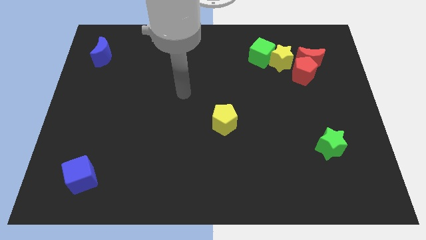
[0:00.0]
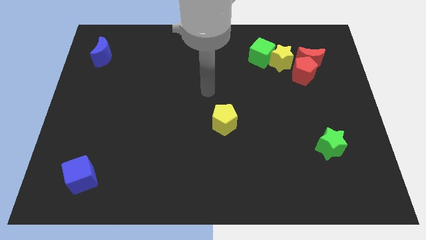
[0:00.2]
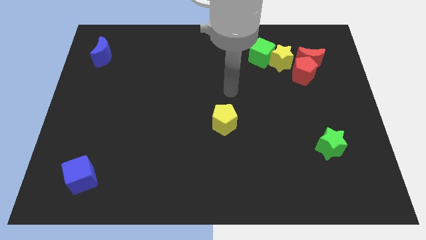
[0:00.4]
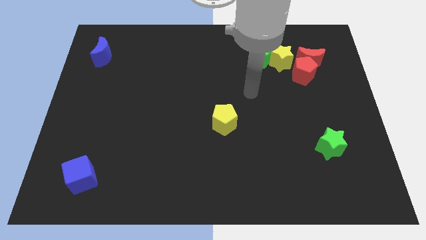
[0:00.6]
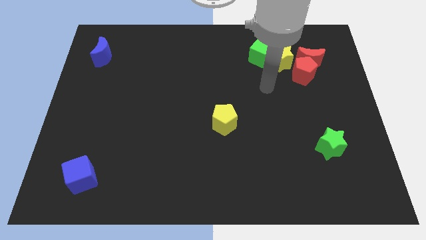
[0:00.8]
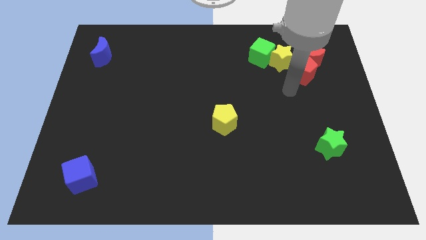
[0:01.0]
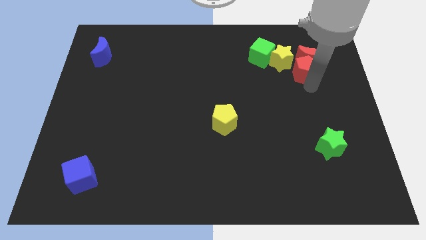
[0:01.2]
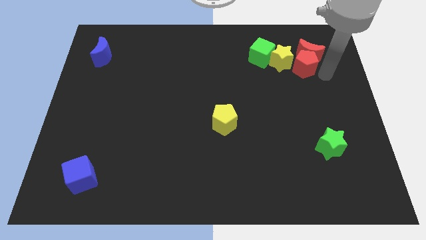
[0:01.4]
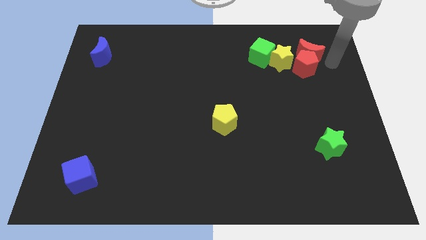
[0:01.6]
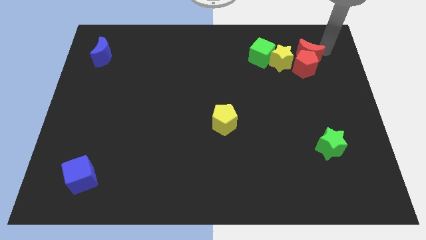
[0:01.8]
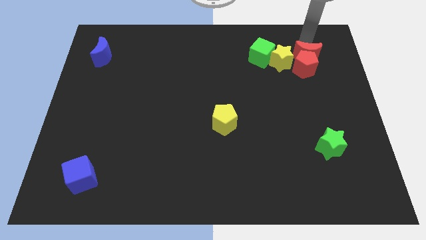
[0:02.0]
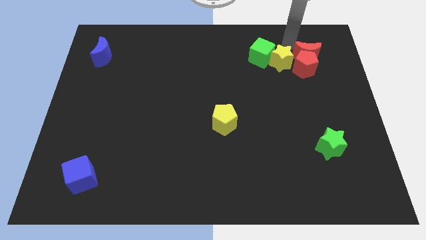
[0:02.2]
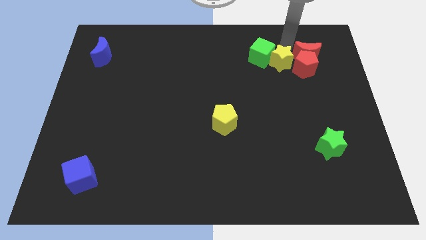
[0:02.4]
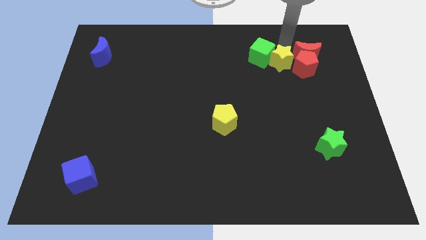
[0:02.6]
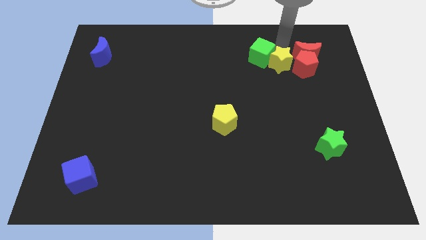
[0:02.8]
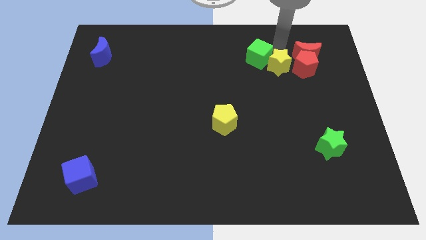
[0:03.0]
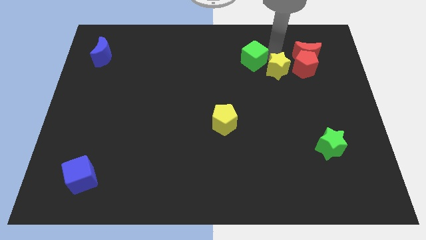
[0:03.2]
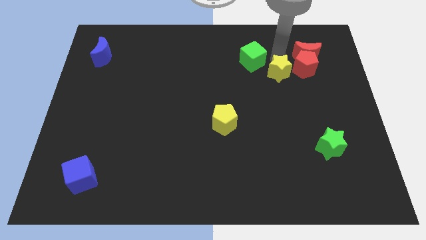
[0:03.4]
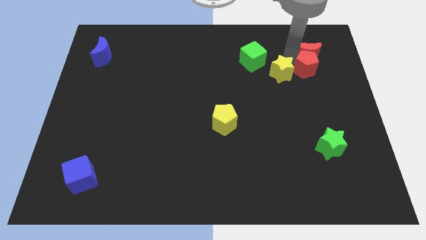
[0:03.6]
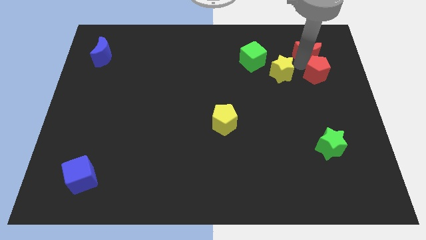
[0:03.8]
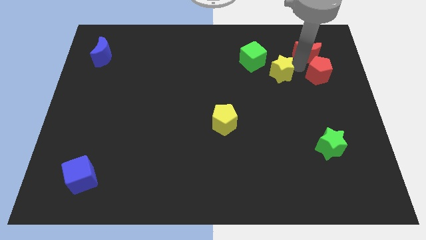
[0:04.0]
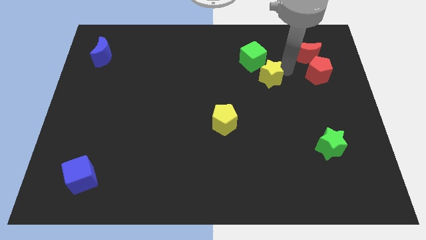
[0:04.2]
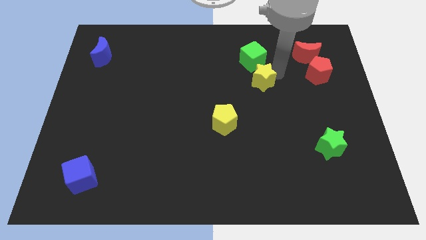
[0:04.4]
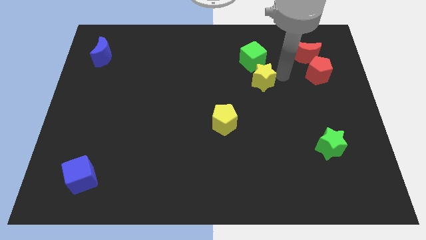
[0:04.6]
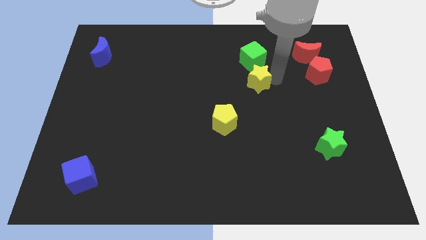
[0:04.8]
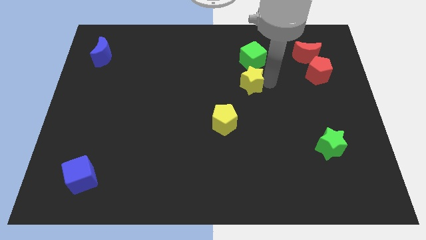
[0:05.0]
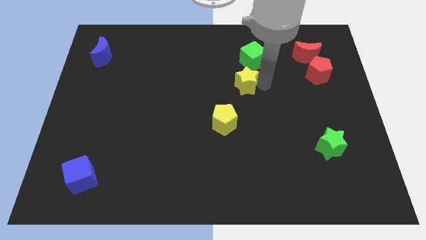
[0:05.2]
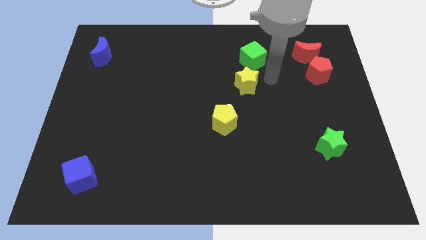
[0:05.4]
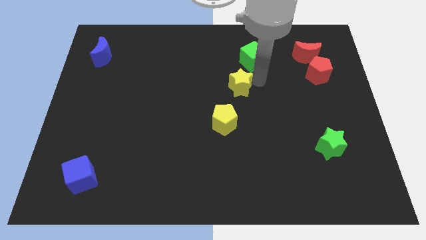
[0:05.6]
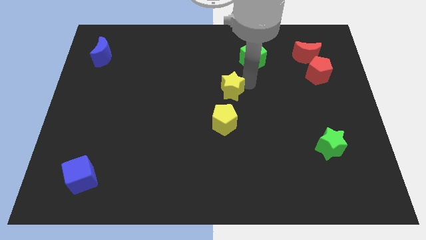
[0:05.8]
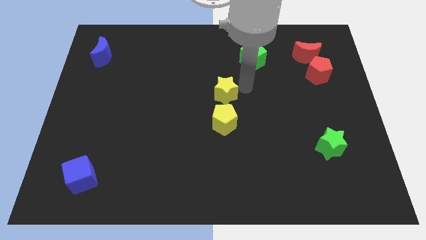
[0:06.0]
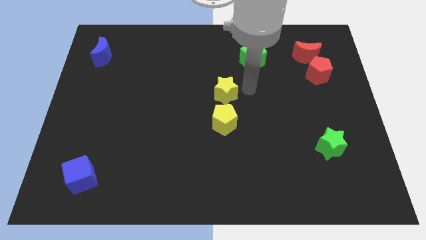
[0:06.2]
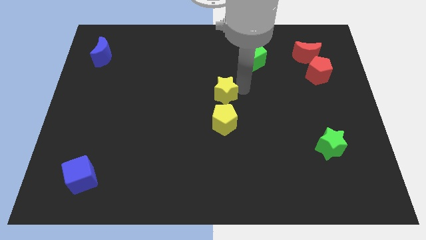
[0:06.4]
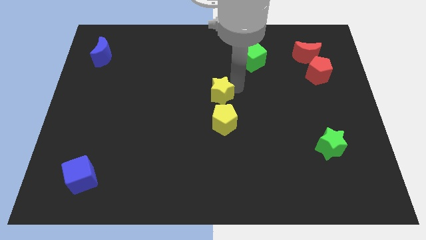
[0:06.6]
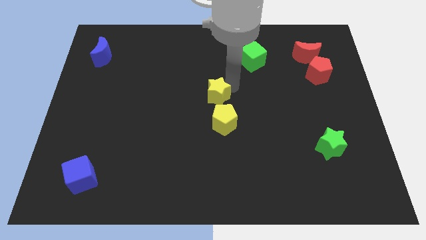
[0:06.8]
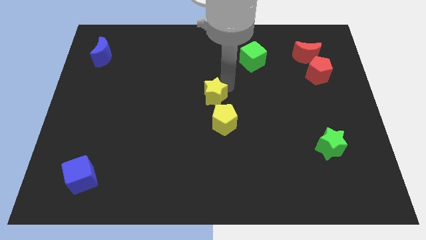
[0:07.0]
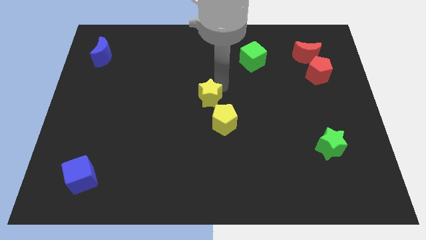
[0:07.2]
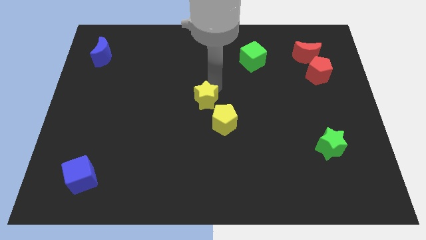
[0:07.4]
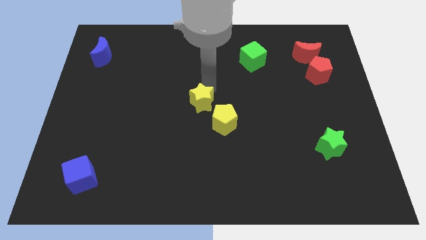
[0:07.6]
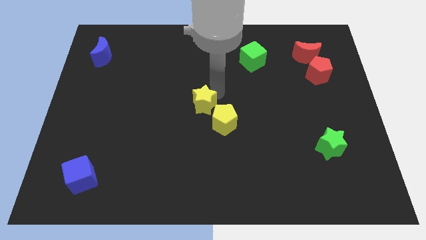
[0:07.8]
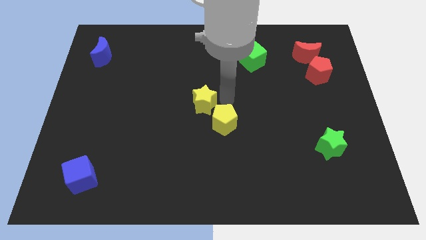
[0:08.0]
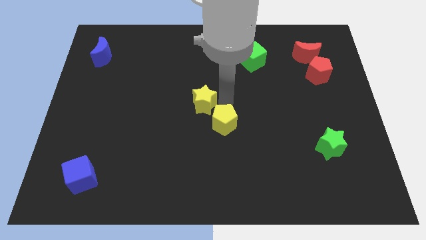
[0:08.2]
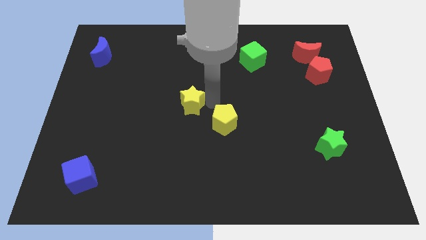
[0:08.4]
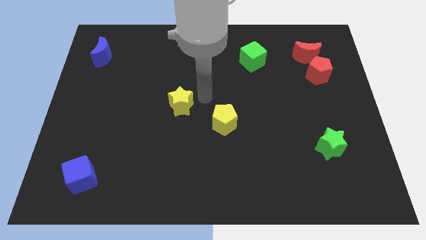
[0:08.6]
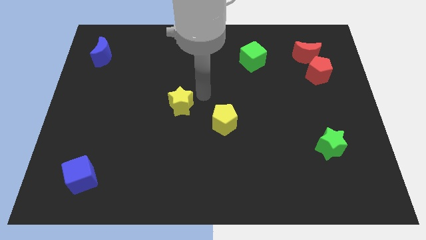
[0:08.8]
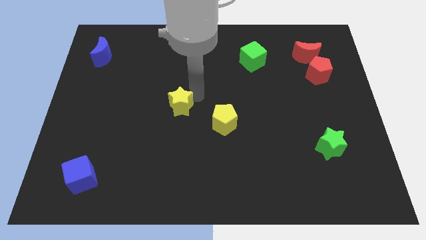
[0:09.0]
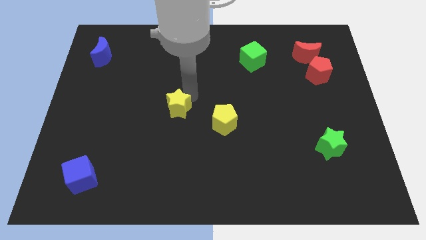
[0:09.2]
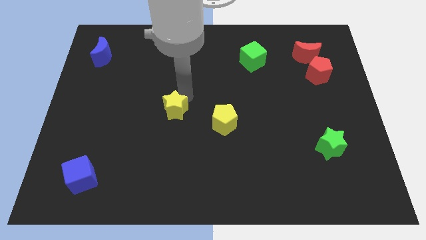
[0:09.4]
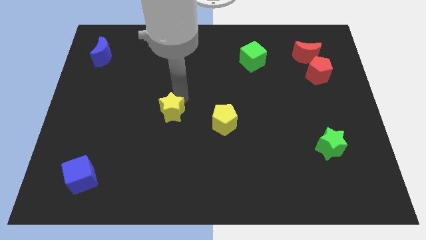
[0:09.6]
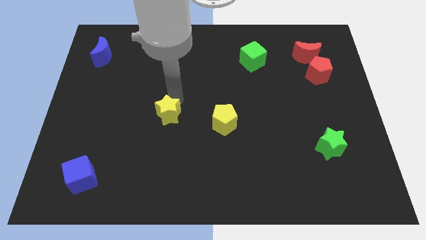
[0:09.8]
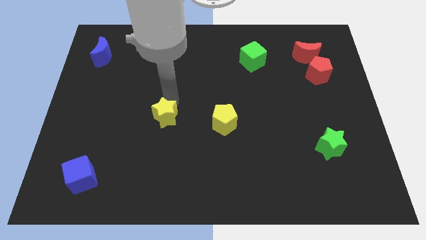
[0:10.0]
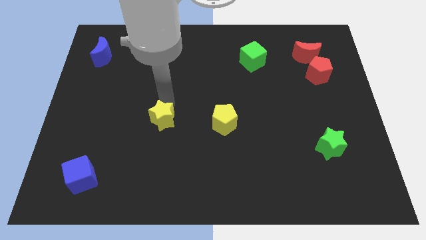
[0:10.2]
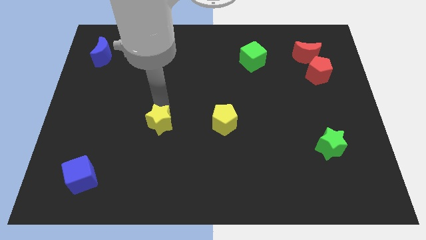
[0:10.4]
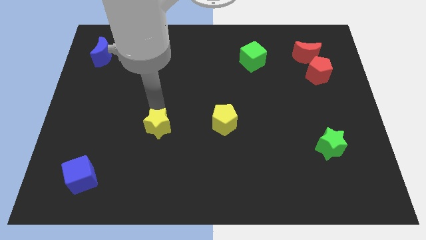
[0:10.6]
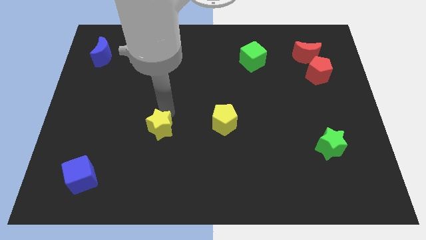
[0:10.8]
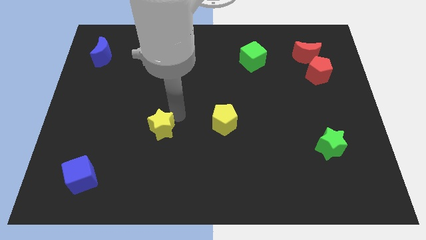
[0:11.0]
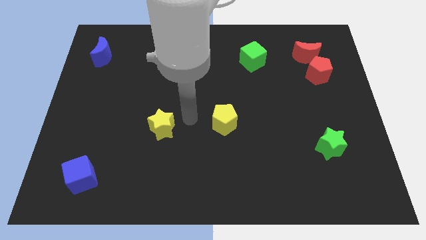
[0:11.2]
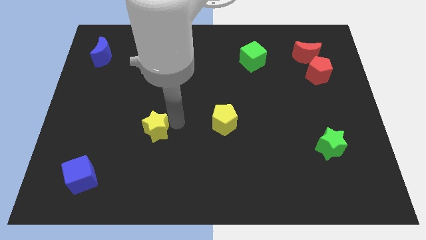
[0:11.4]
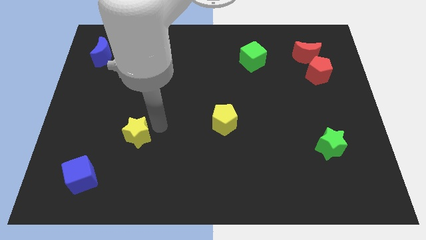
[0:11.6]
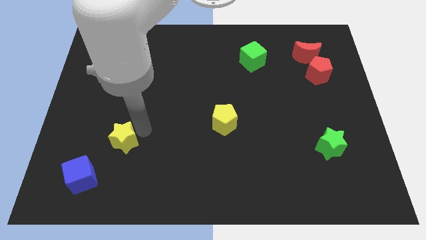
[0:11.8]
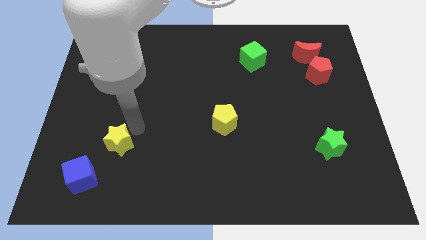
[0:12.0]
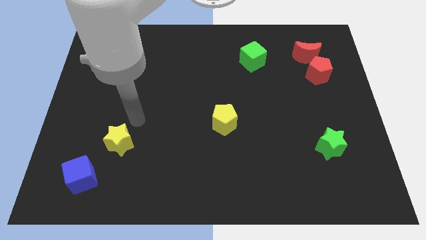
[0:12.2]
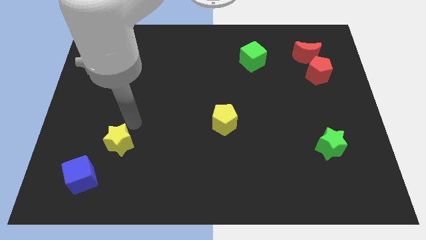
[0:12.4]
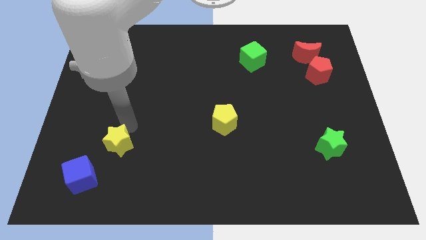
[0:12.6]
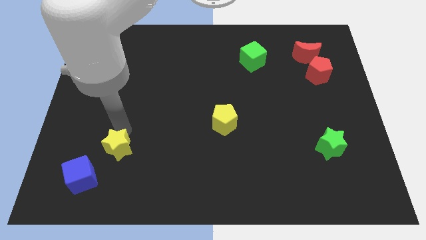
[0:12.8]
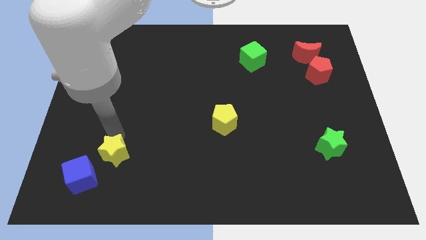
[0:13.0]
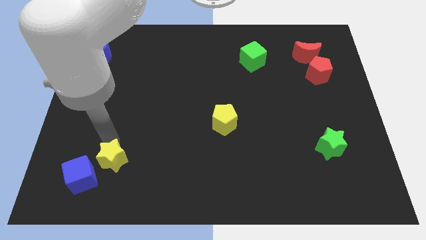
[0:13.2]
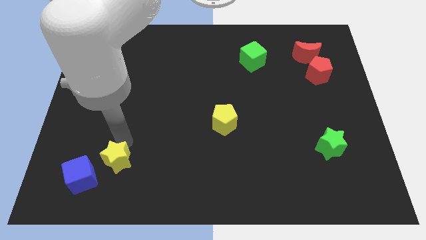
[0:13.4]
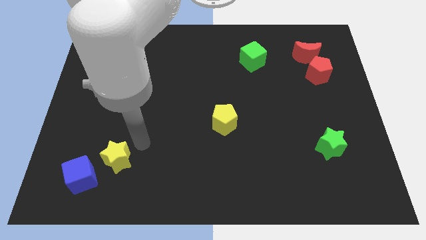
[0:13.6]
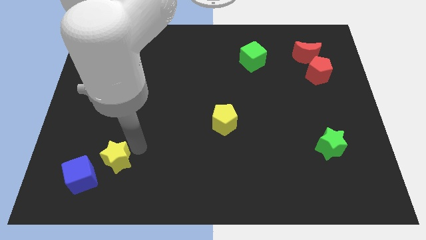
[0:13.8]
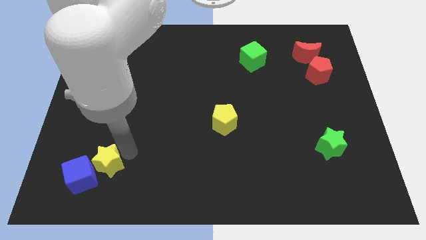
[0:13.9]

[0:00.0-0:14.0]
push the yellow star towards the blue cube
